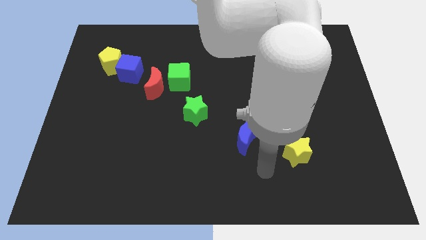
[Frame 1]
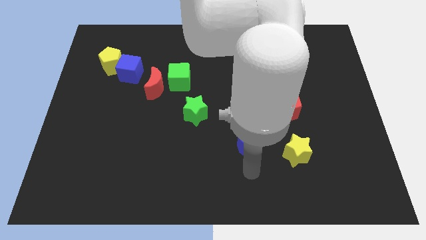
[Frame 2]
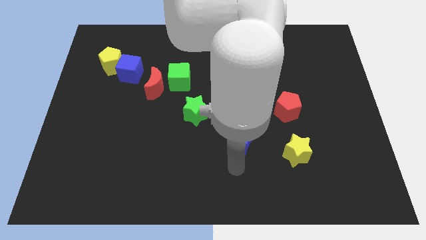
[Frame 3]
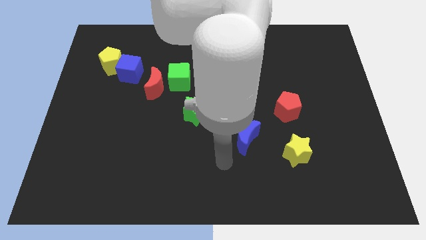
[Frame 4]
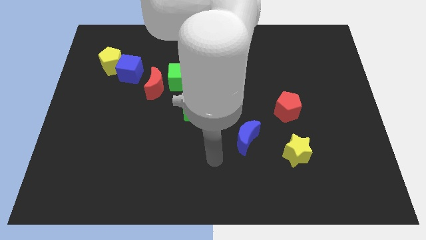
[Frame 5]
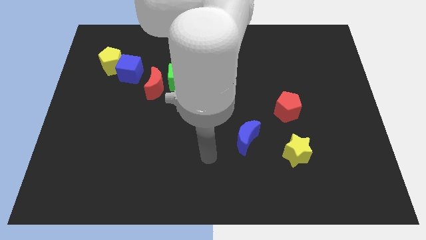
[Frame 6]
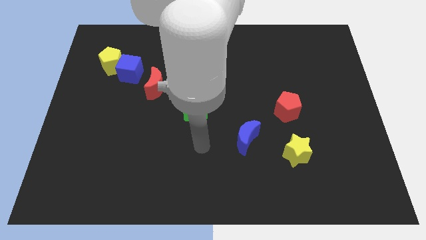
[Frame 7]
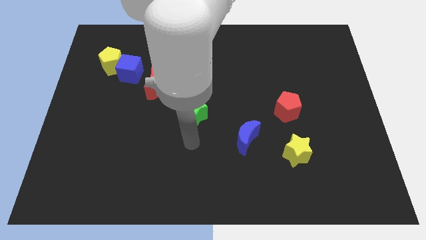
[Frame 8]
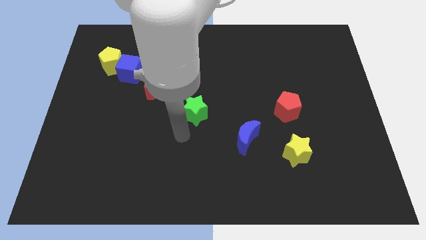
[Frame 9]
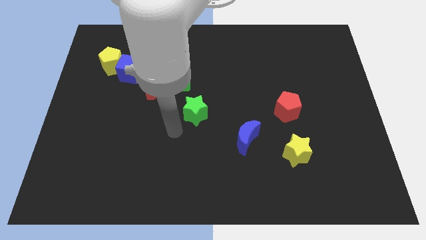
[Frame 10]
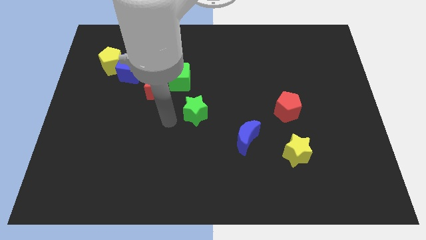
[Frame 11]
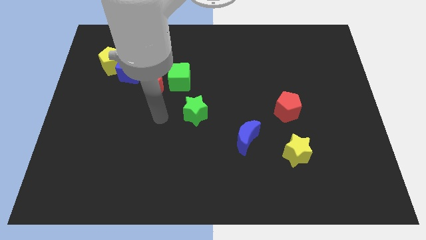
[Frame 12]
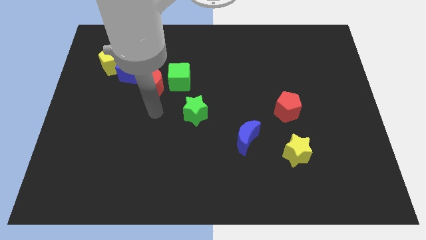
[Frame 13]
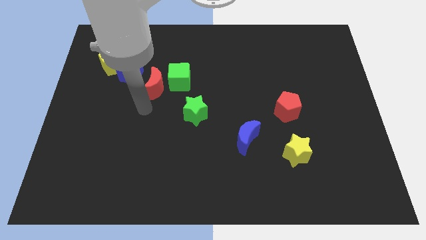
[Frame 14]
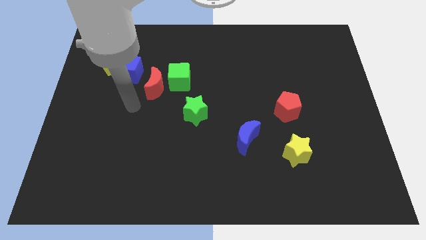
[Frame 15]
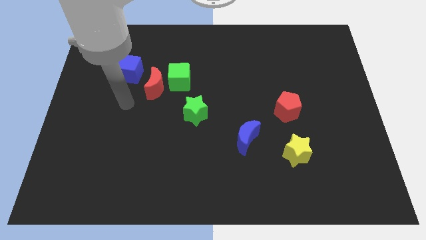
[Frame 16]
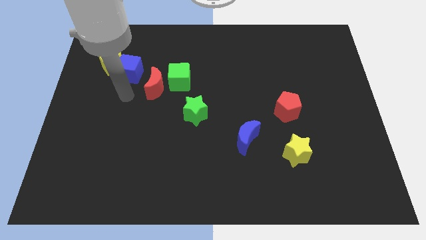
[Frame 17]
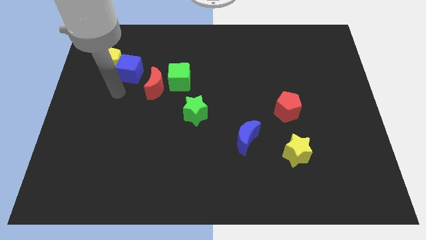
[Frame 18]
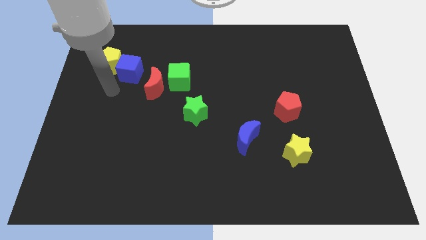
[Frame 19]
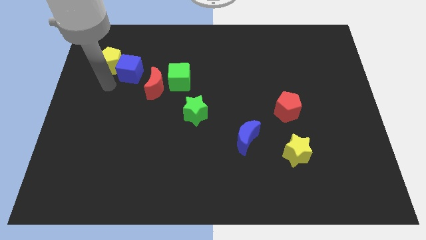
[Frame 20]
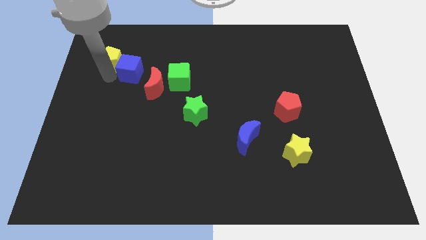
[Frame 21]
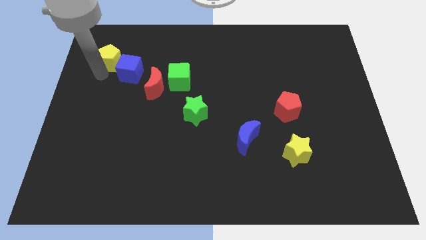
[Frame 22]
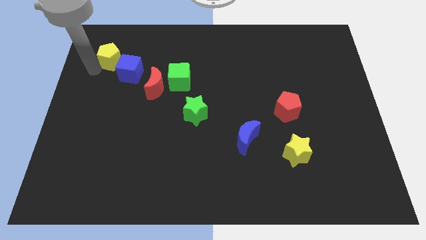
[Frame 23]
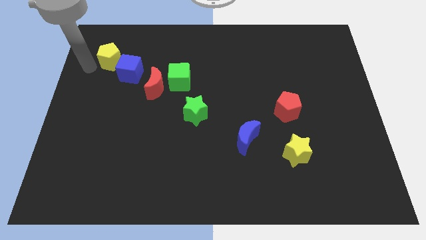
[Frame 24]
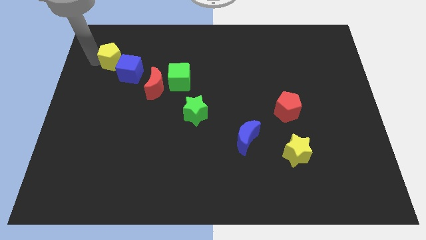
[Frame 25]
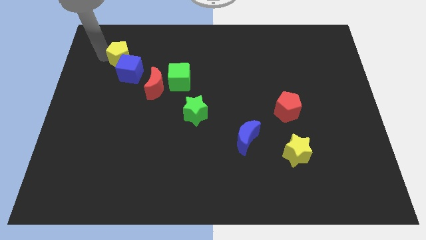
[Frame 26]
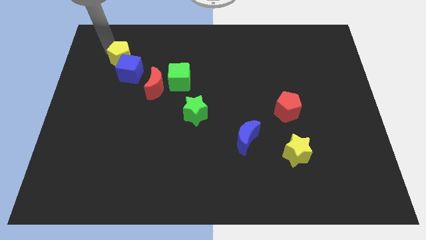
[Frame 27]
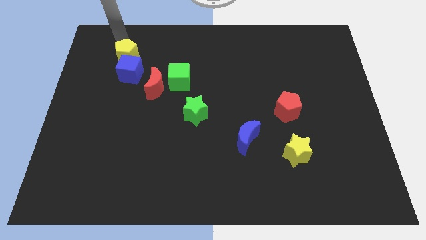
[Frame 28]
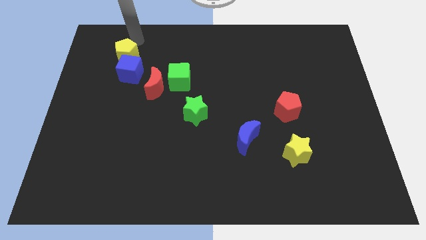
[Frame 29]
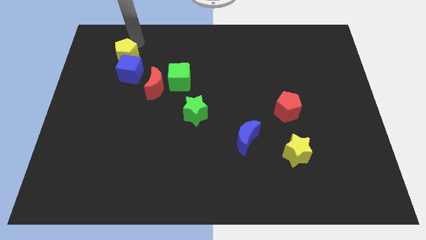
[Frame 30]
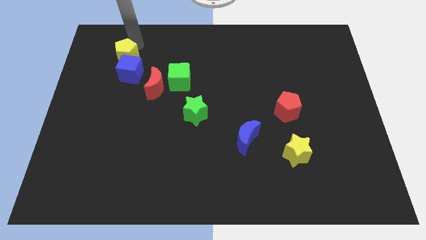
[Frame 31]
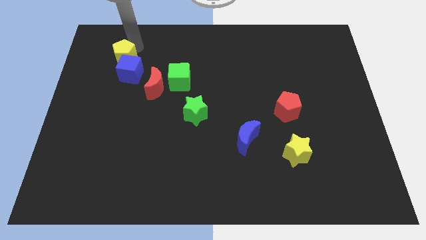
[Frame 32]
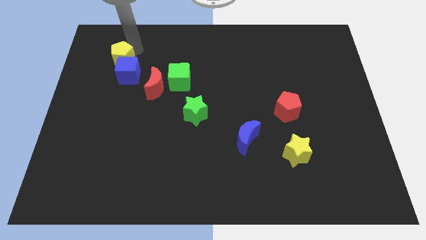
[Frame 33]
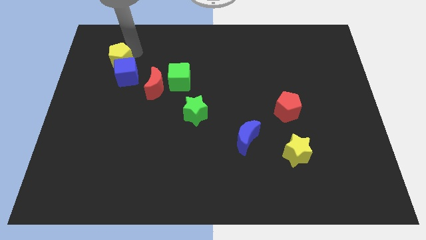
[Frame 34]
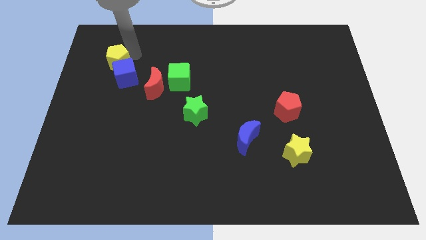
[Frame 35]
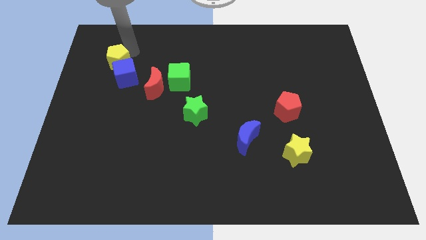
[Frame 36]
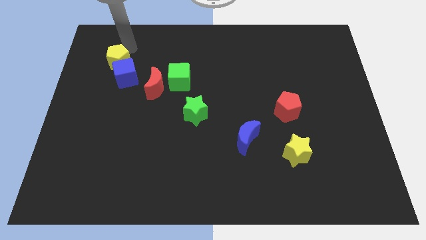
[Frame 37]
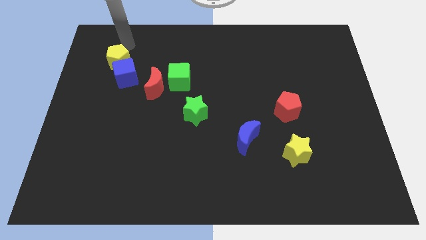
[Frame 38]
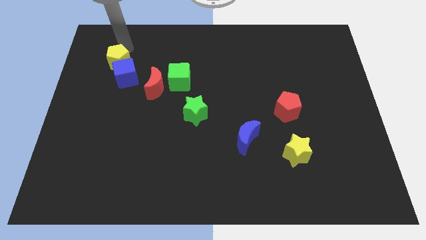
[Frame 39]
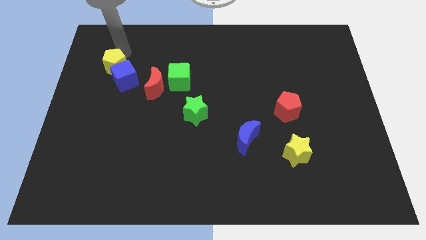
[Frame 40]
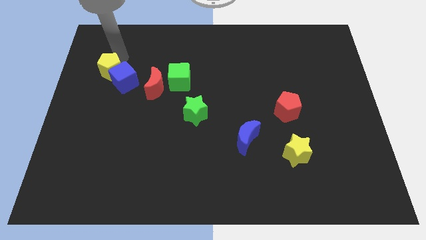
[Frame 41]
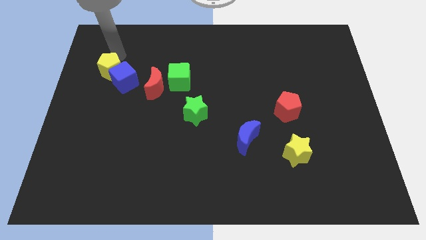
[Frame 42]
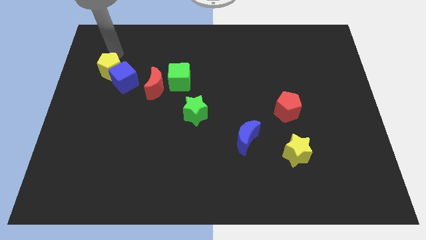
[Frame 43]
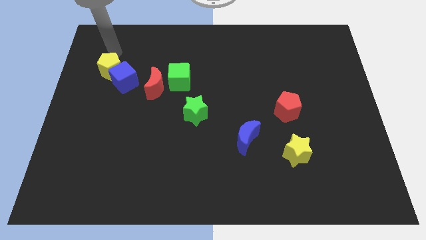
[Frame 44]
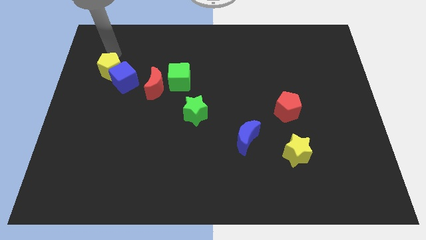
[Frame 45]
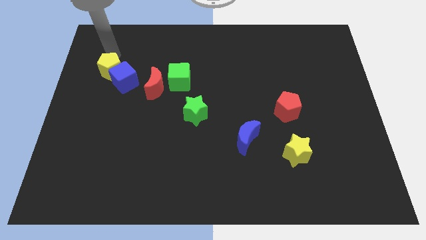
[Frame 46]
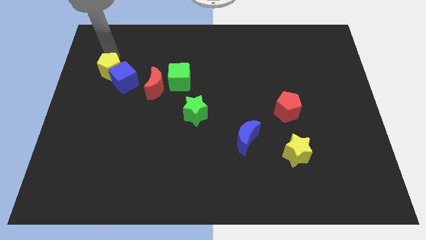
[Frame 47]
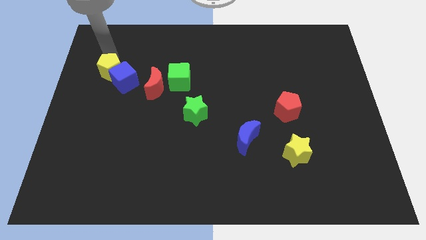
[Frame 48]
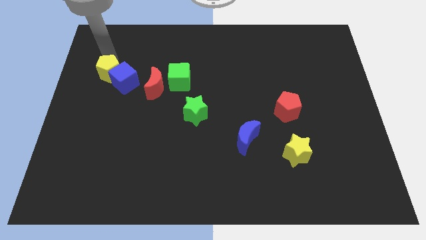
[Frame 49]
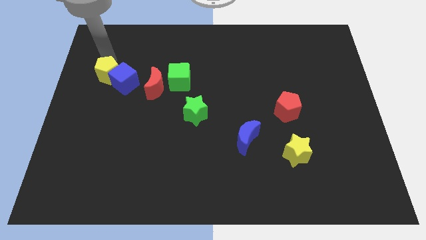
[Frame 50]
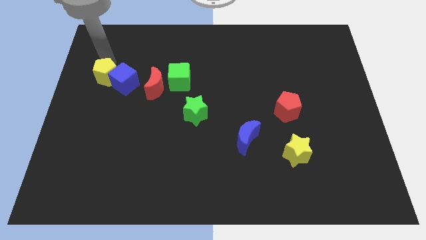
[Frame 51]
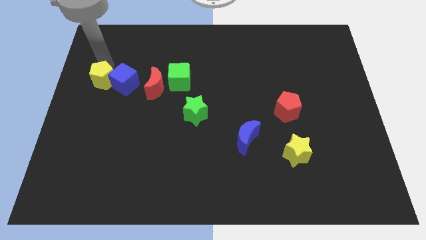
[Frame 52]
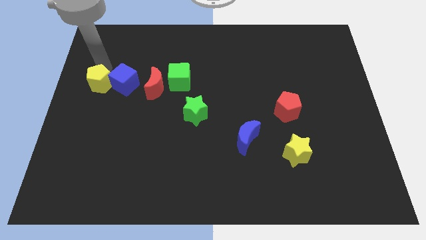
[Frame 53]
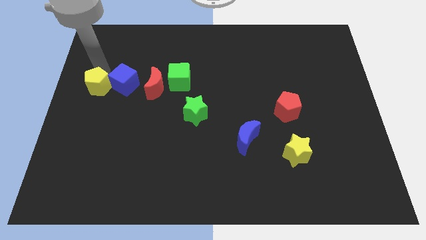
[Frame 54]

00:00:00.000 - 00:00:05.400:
slightly slide the yellow pentagon downwards

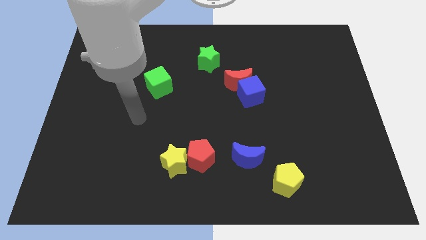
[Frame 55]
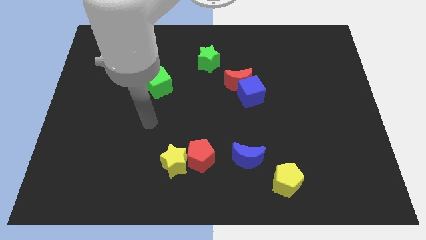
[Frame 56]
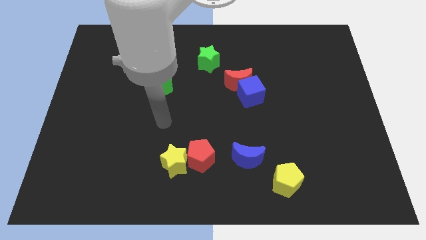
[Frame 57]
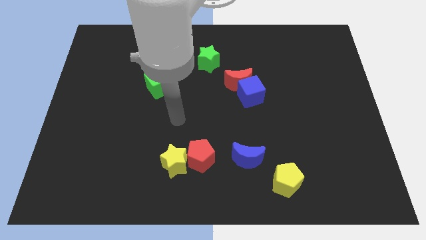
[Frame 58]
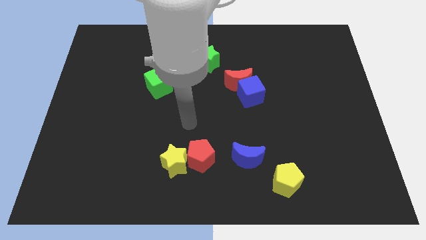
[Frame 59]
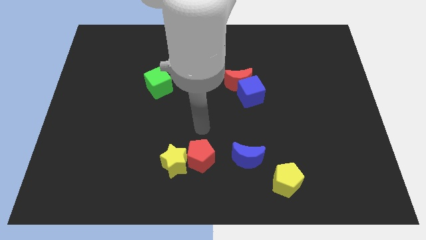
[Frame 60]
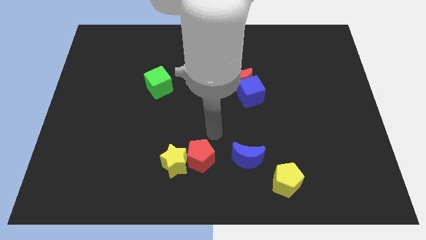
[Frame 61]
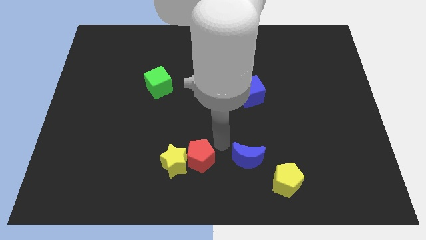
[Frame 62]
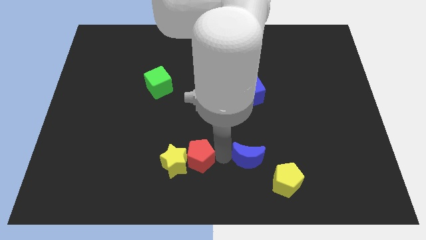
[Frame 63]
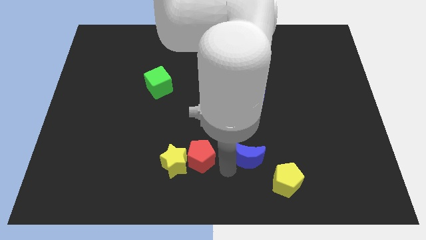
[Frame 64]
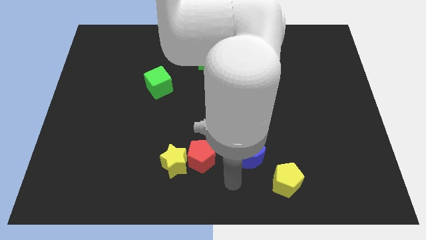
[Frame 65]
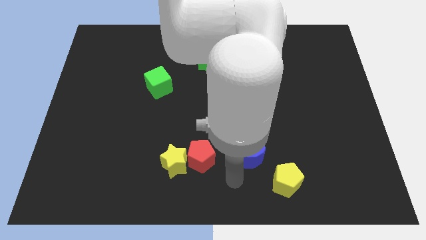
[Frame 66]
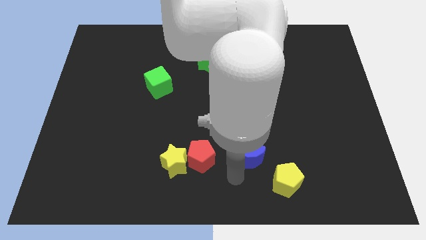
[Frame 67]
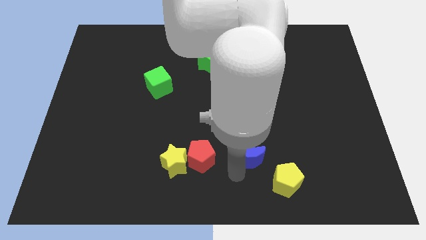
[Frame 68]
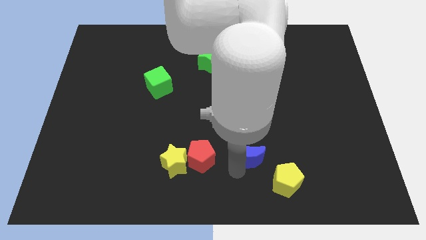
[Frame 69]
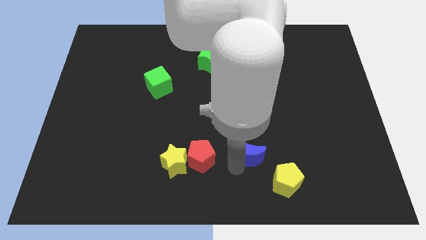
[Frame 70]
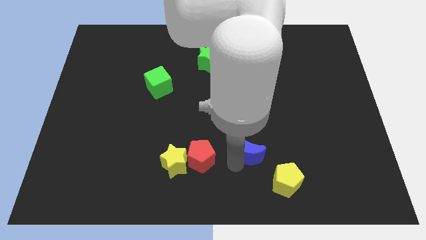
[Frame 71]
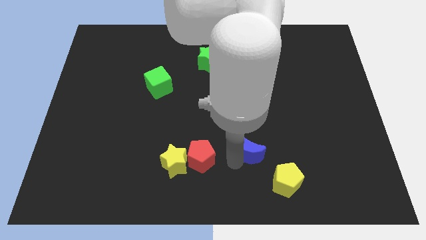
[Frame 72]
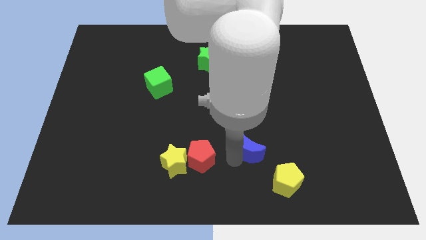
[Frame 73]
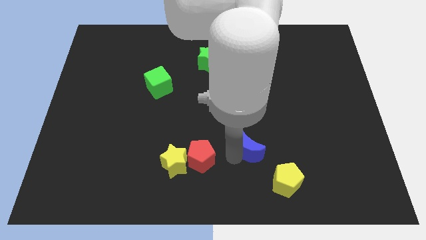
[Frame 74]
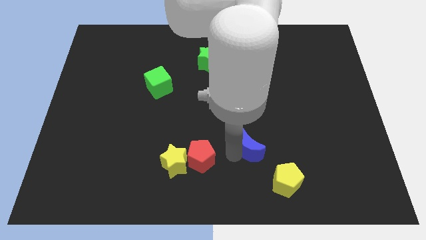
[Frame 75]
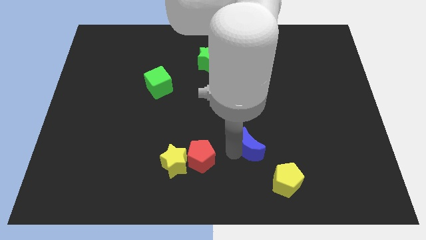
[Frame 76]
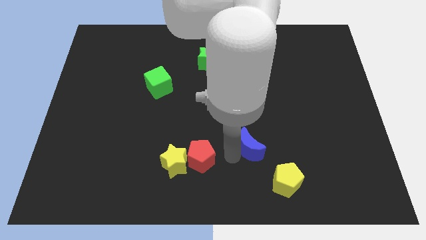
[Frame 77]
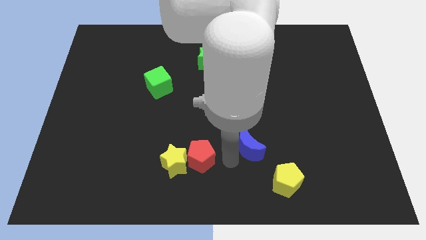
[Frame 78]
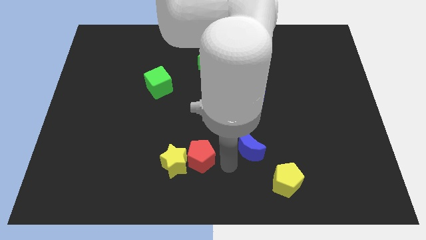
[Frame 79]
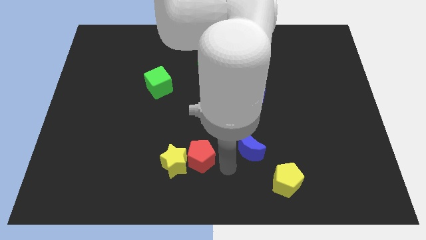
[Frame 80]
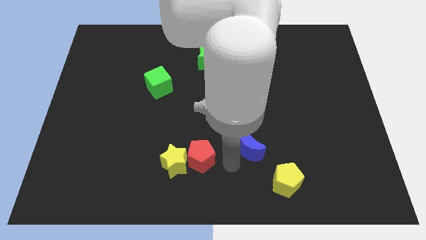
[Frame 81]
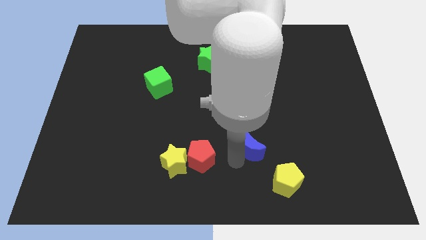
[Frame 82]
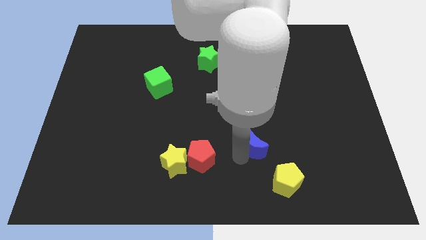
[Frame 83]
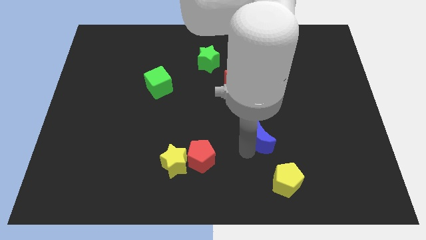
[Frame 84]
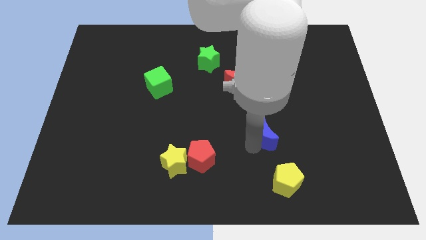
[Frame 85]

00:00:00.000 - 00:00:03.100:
slide the blue moon a little bit upwards and to the right diagonally
